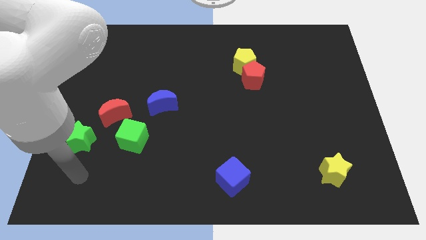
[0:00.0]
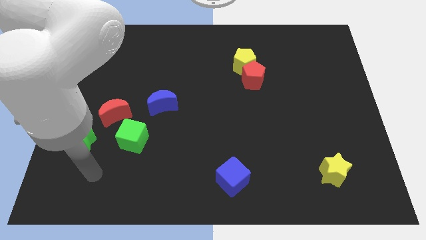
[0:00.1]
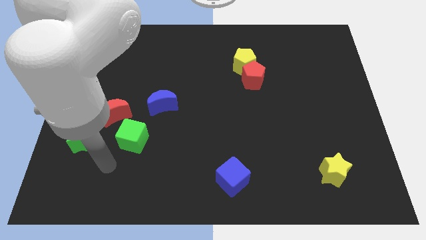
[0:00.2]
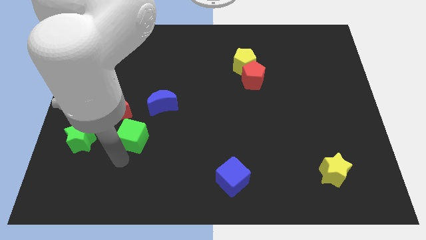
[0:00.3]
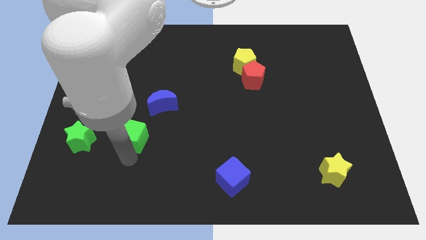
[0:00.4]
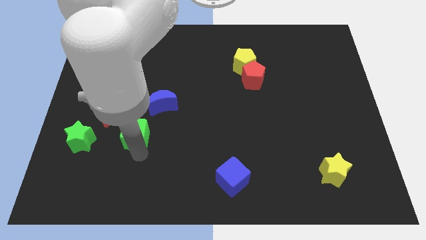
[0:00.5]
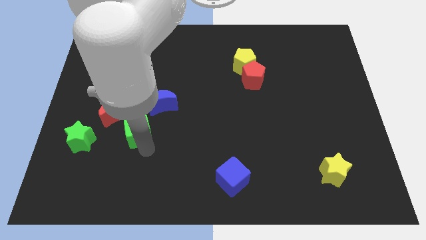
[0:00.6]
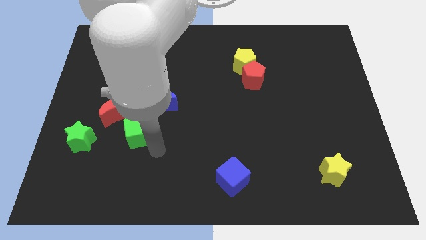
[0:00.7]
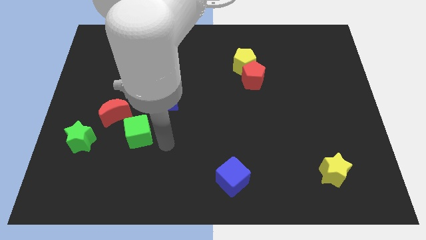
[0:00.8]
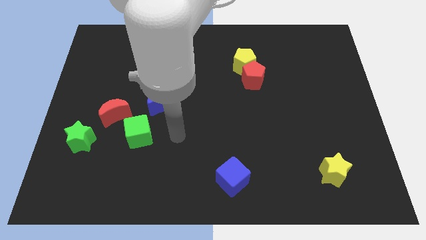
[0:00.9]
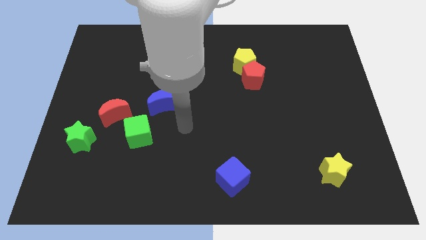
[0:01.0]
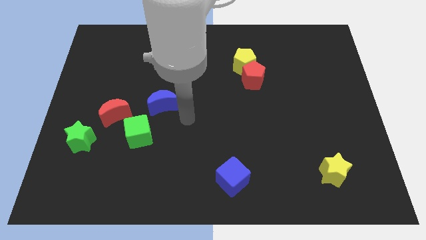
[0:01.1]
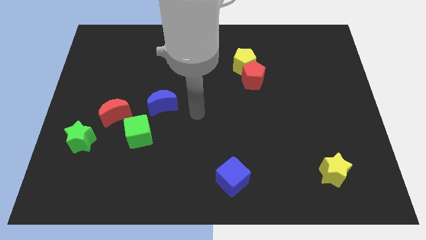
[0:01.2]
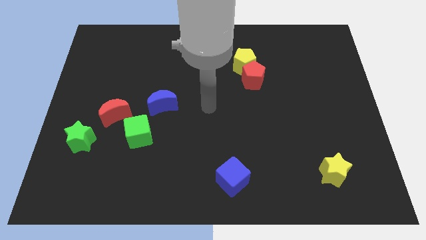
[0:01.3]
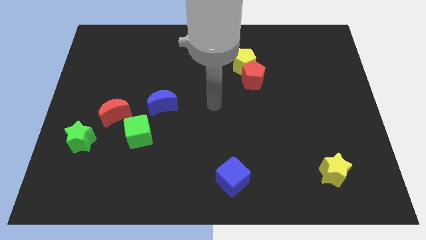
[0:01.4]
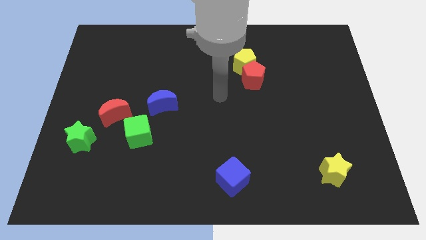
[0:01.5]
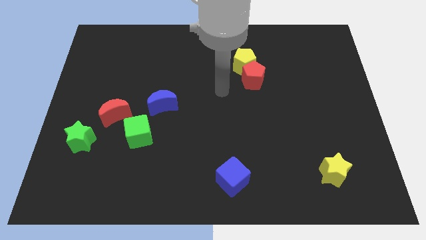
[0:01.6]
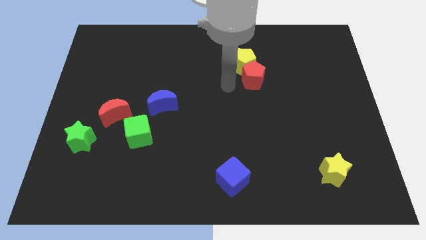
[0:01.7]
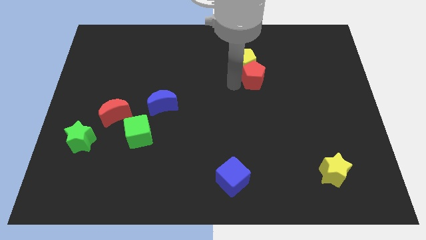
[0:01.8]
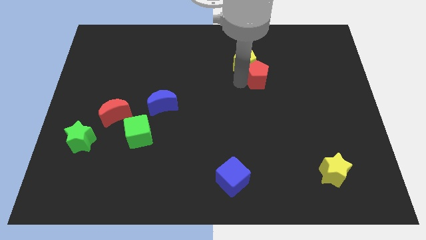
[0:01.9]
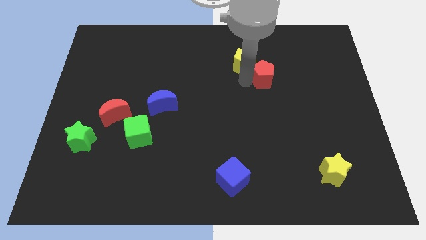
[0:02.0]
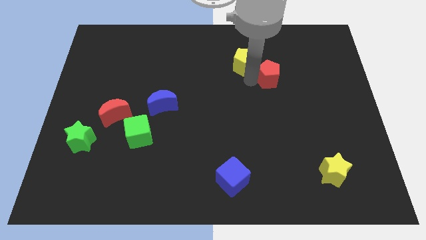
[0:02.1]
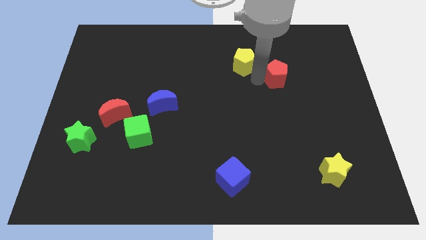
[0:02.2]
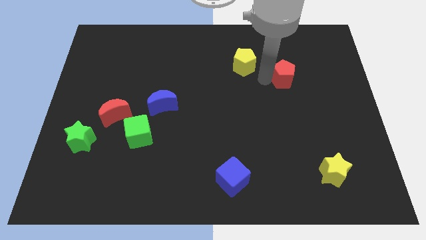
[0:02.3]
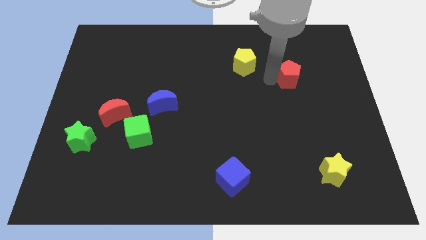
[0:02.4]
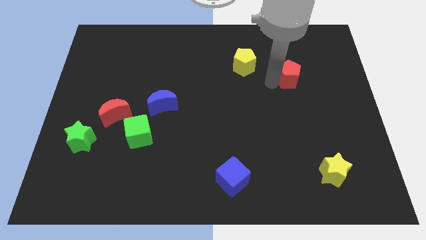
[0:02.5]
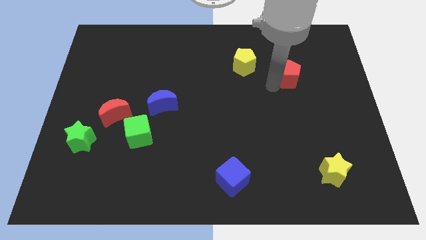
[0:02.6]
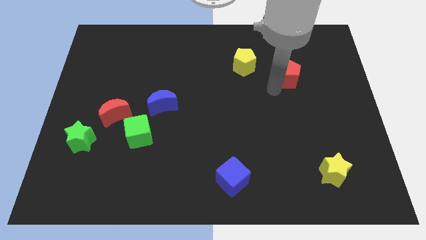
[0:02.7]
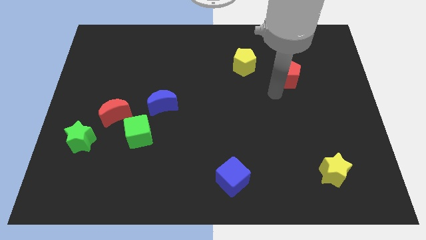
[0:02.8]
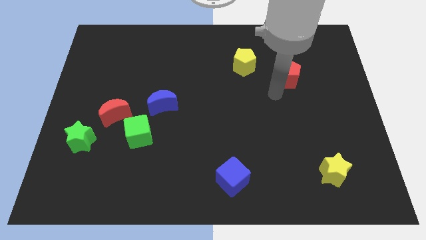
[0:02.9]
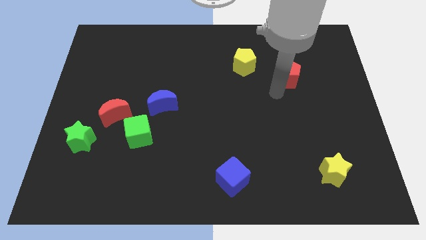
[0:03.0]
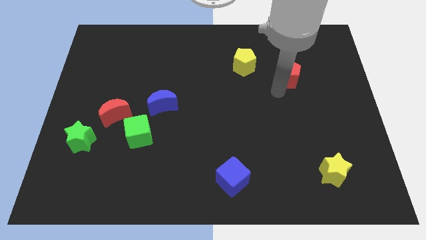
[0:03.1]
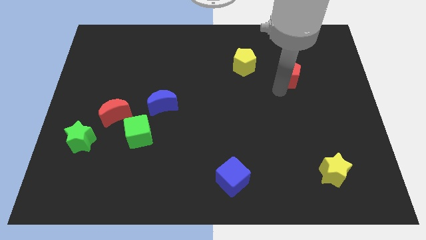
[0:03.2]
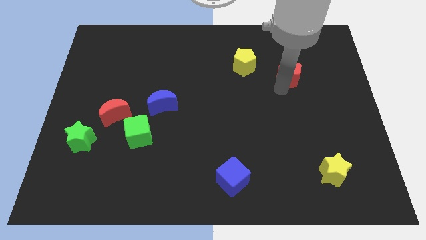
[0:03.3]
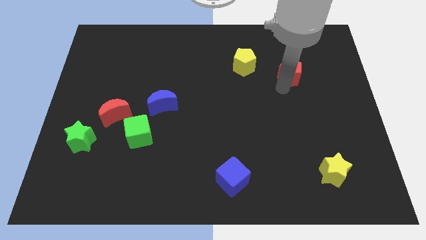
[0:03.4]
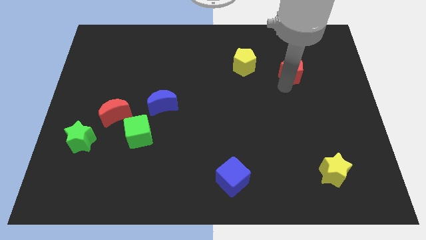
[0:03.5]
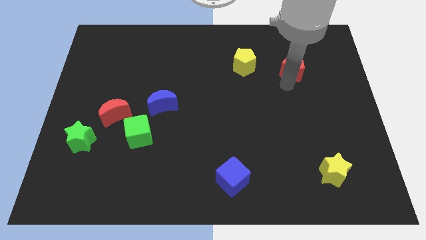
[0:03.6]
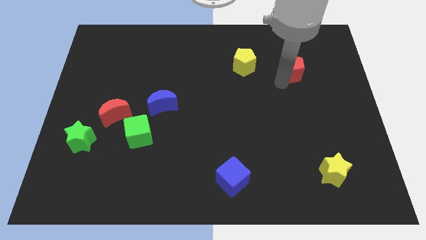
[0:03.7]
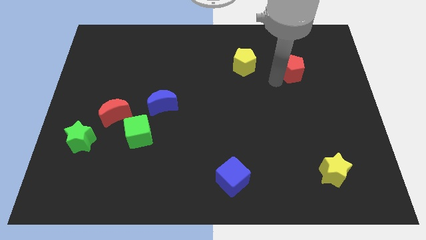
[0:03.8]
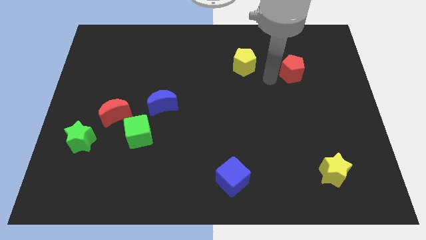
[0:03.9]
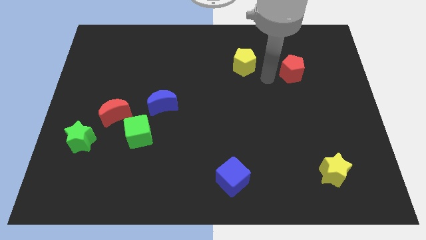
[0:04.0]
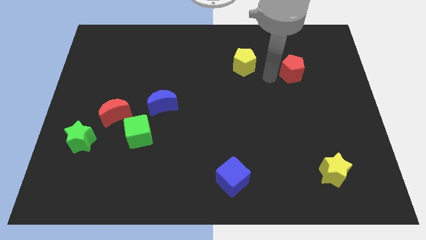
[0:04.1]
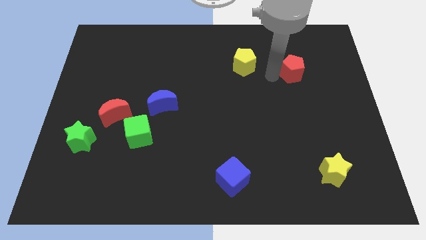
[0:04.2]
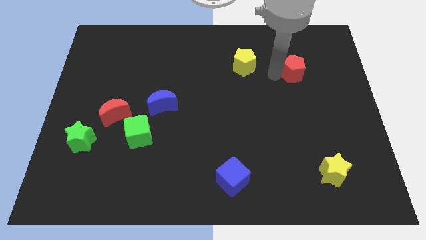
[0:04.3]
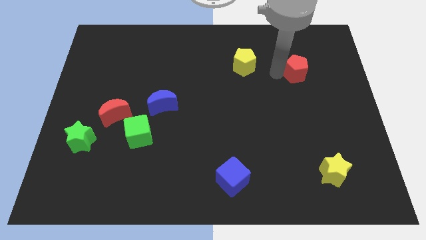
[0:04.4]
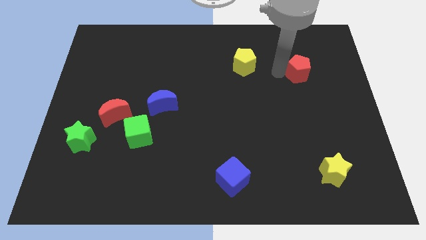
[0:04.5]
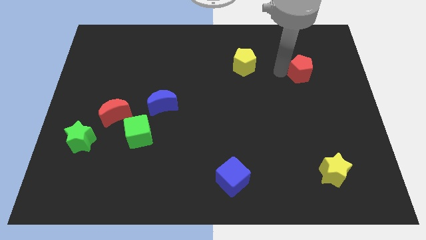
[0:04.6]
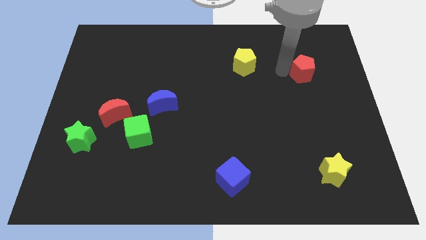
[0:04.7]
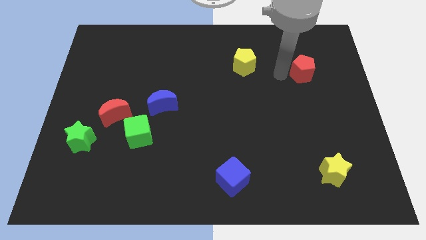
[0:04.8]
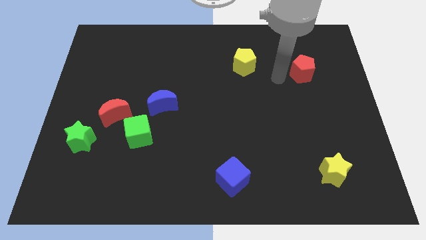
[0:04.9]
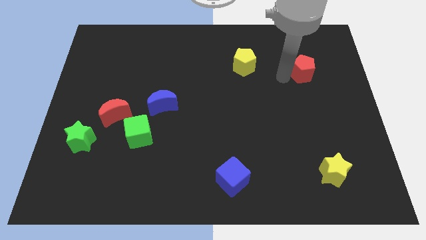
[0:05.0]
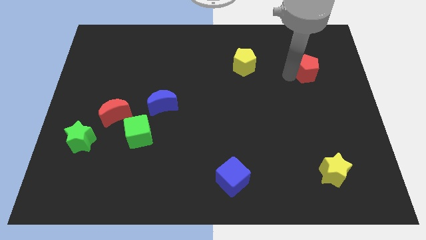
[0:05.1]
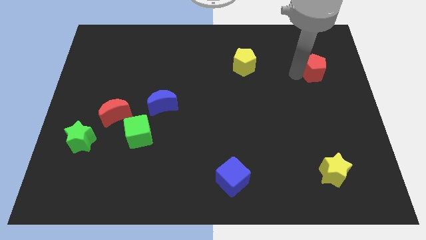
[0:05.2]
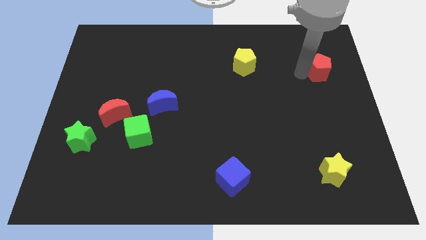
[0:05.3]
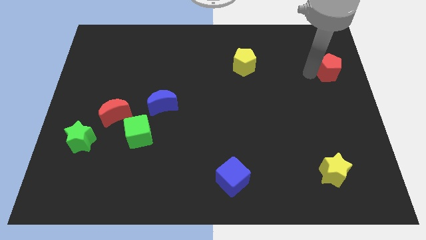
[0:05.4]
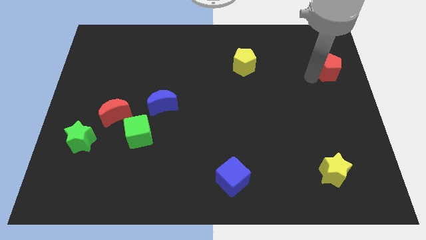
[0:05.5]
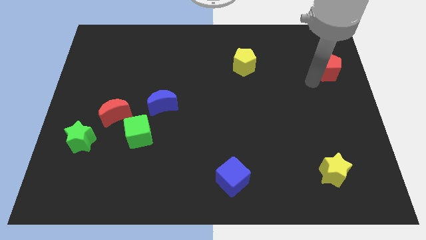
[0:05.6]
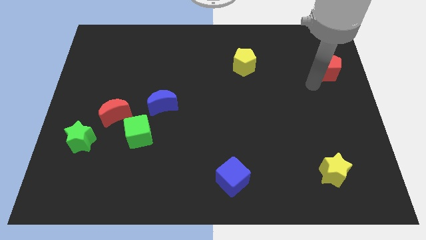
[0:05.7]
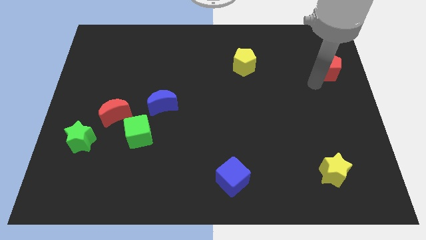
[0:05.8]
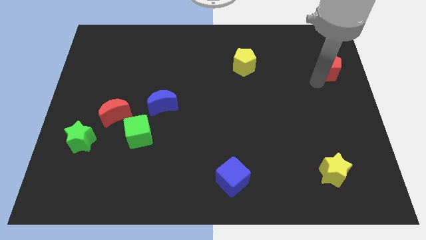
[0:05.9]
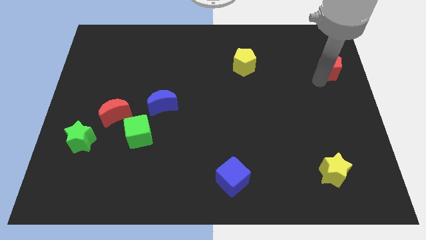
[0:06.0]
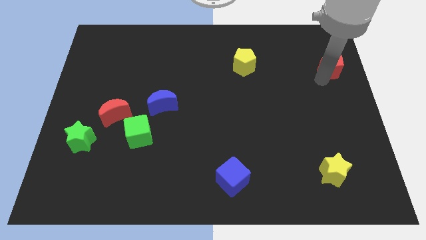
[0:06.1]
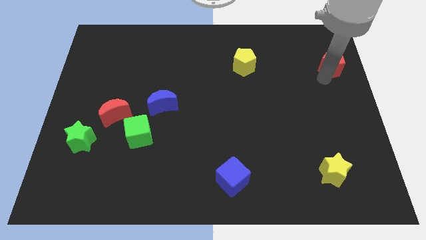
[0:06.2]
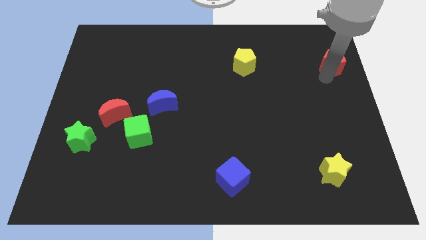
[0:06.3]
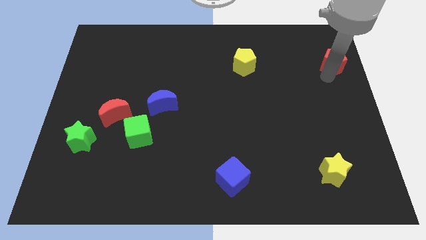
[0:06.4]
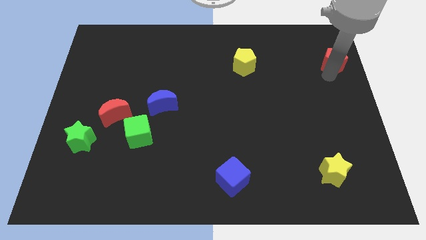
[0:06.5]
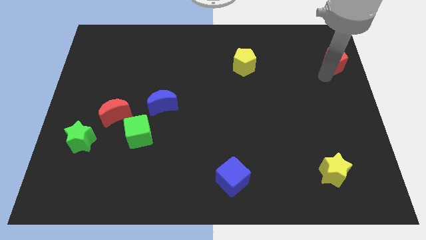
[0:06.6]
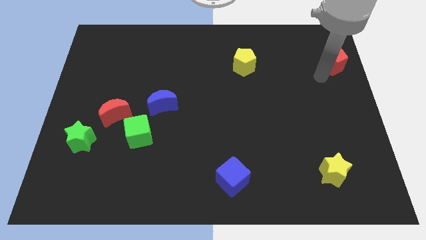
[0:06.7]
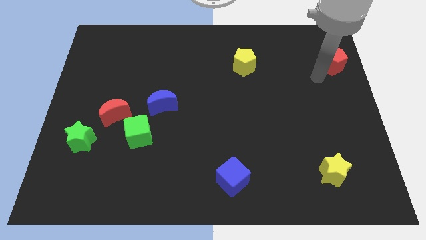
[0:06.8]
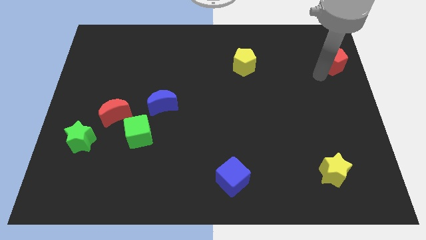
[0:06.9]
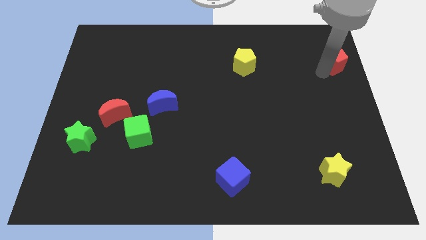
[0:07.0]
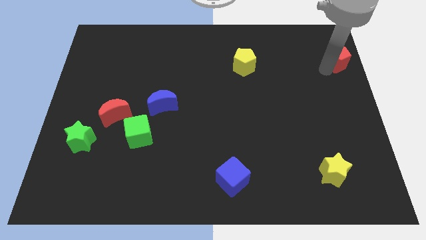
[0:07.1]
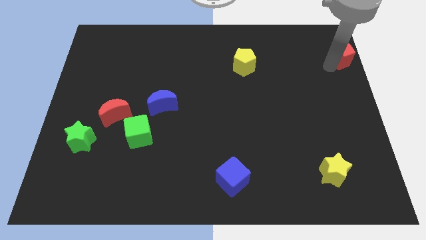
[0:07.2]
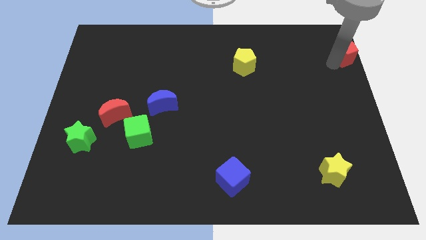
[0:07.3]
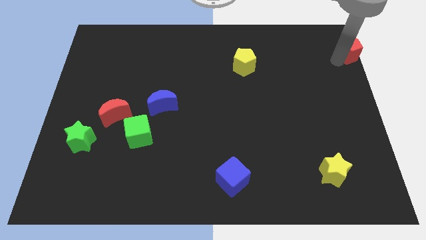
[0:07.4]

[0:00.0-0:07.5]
push the red pentagon to the upper right corner
